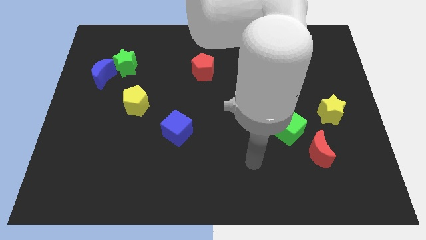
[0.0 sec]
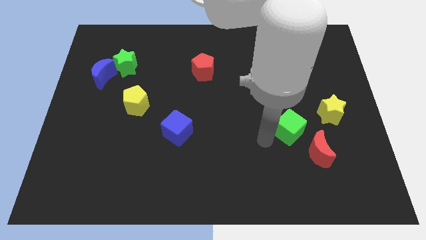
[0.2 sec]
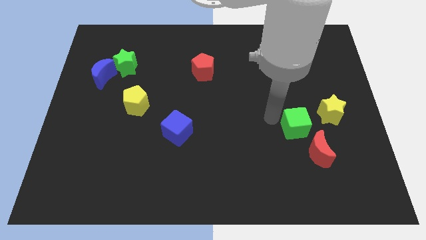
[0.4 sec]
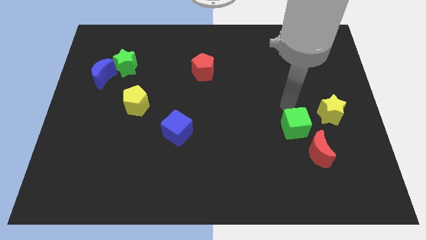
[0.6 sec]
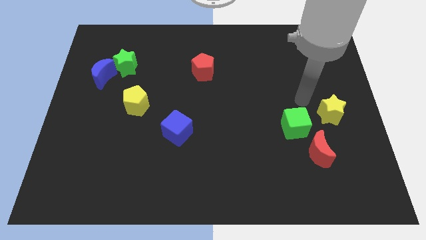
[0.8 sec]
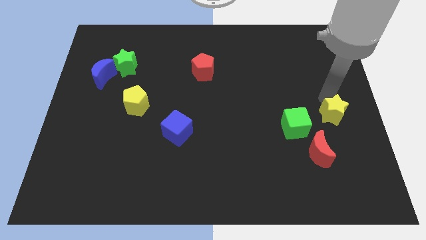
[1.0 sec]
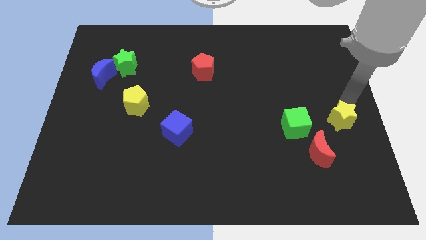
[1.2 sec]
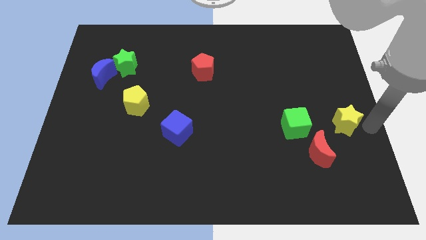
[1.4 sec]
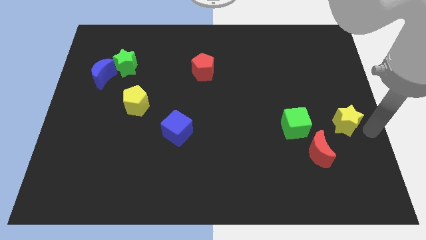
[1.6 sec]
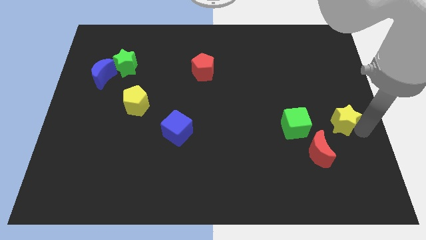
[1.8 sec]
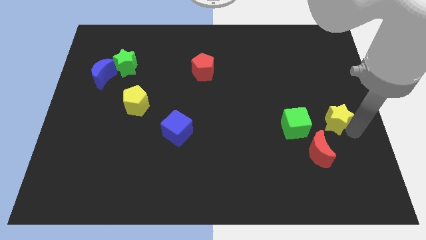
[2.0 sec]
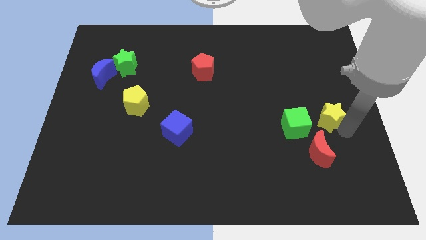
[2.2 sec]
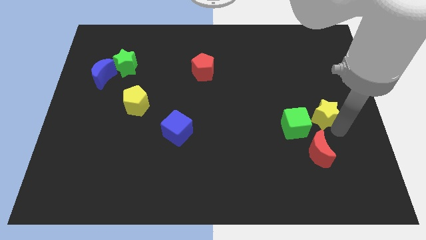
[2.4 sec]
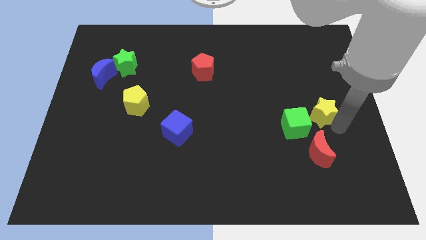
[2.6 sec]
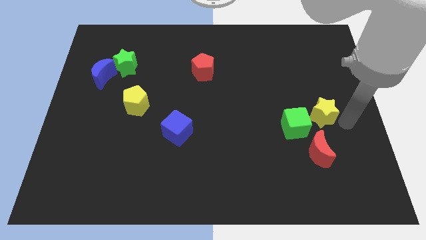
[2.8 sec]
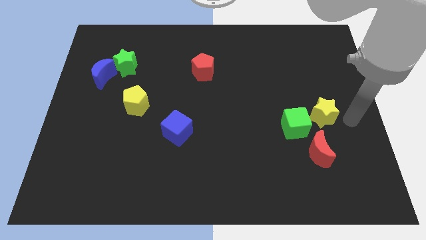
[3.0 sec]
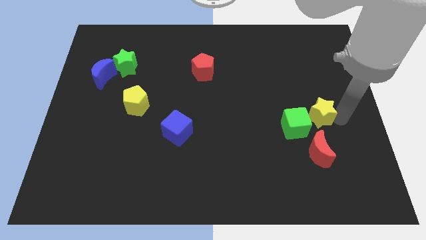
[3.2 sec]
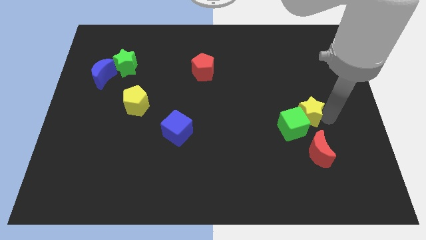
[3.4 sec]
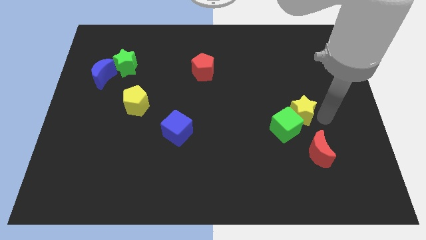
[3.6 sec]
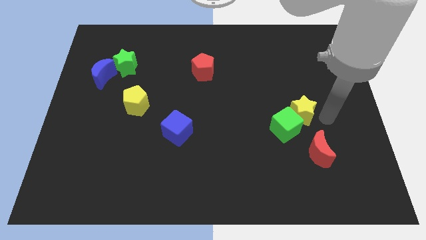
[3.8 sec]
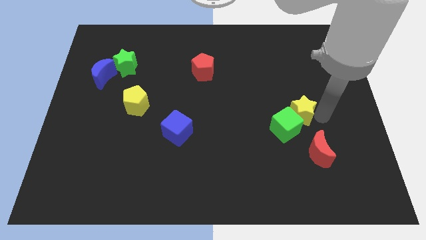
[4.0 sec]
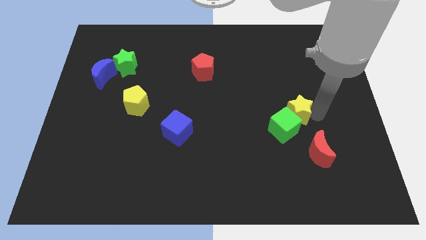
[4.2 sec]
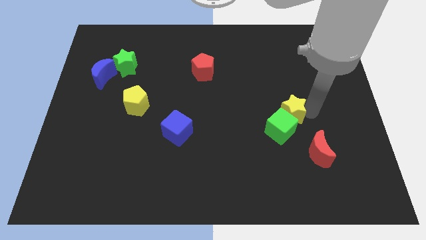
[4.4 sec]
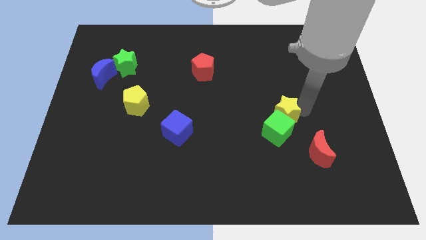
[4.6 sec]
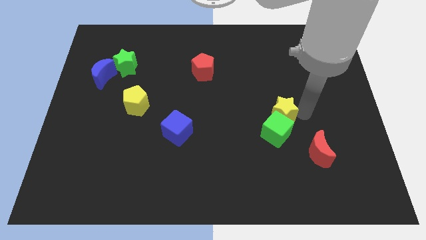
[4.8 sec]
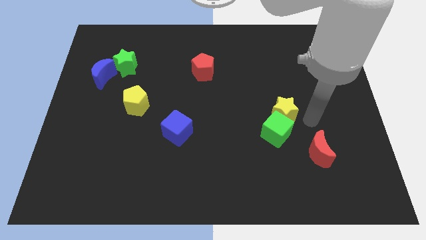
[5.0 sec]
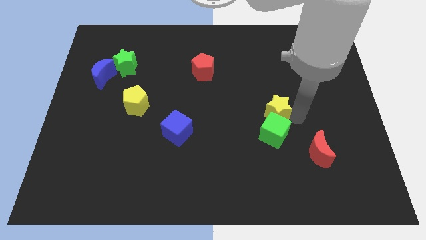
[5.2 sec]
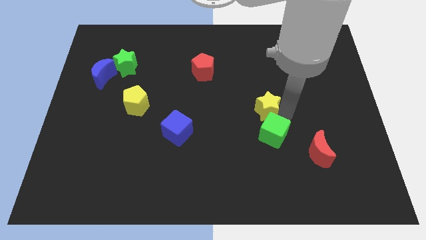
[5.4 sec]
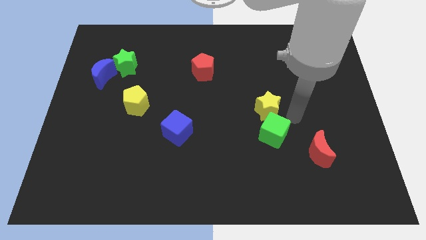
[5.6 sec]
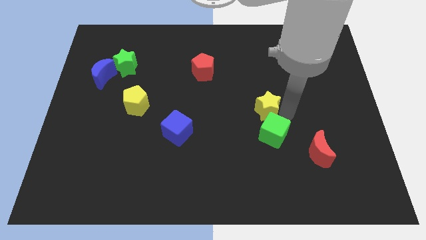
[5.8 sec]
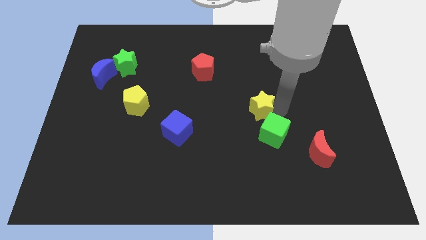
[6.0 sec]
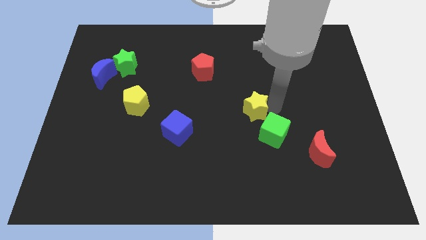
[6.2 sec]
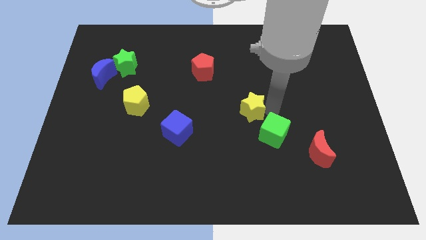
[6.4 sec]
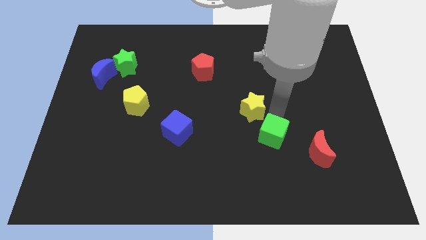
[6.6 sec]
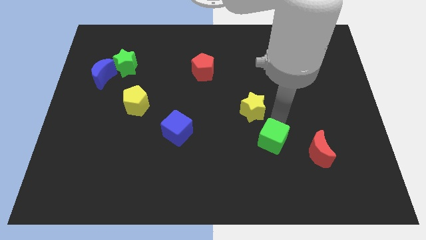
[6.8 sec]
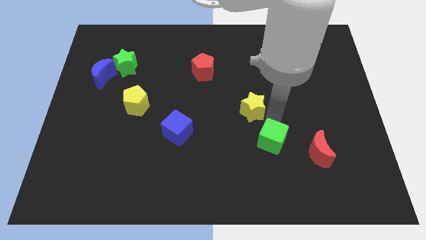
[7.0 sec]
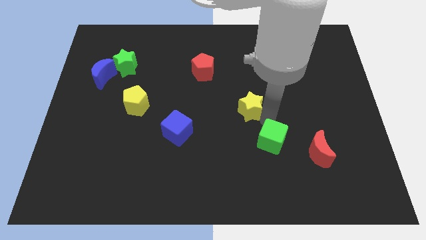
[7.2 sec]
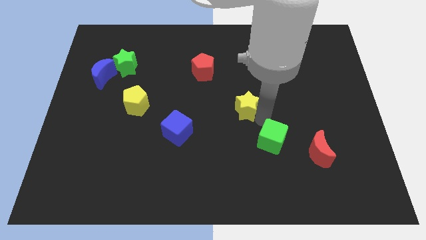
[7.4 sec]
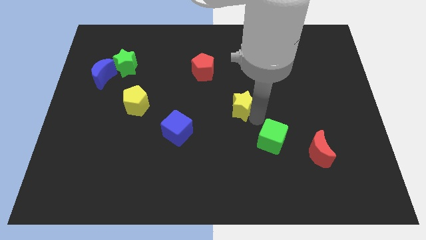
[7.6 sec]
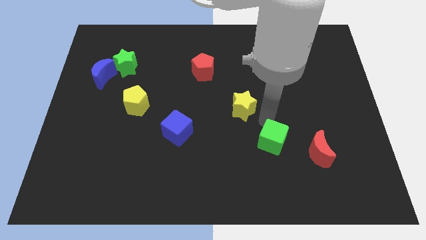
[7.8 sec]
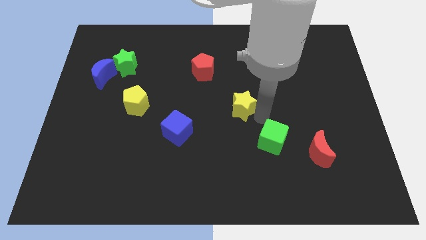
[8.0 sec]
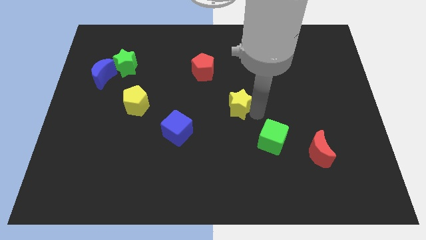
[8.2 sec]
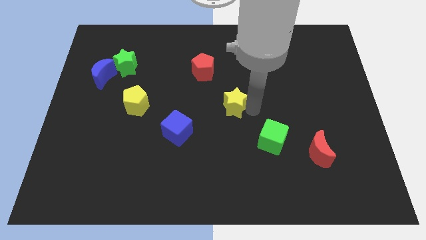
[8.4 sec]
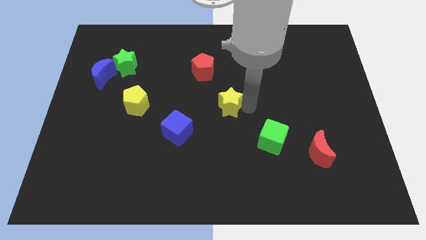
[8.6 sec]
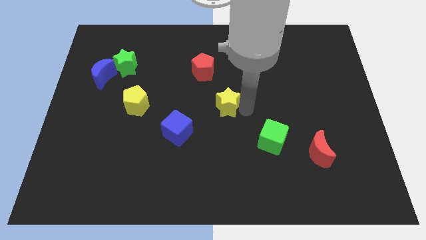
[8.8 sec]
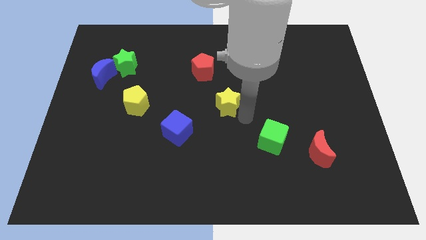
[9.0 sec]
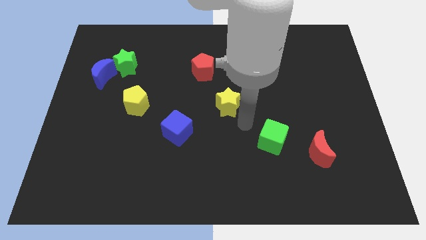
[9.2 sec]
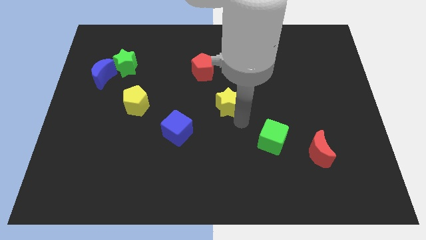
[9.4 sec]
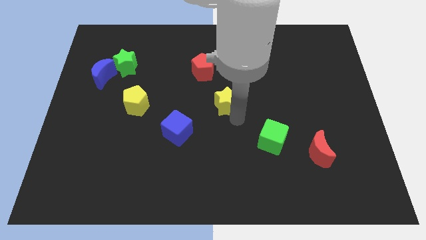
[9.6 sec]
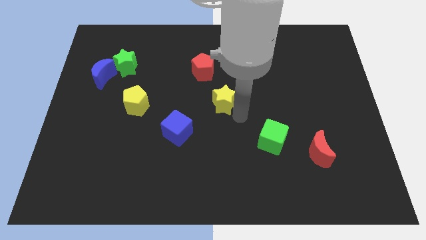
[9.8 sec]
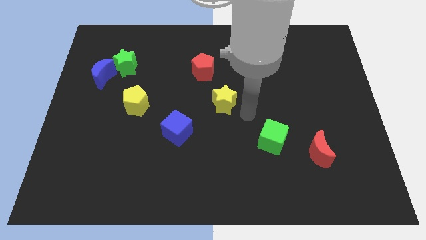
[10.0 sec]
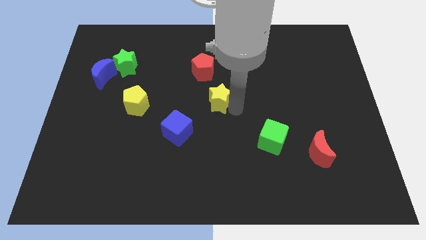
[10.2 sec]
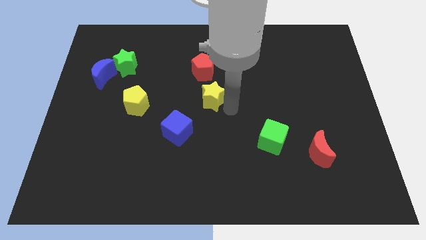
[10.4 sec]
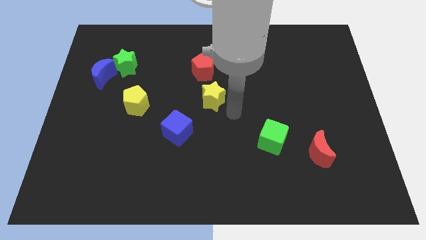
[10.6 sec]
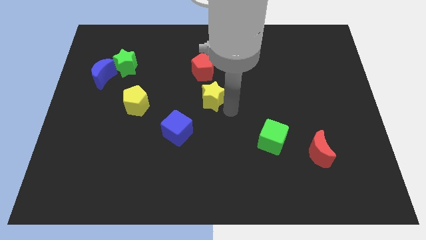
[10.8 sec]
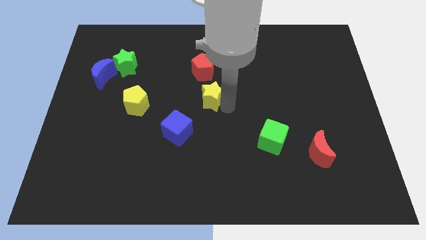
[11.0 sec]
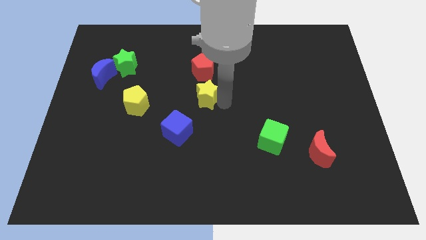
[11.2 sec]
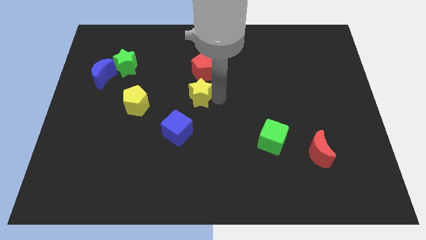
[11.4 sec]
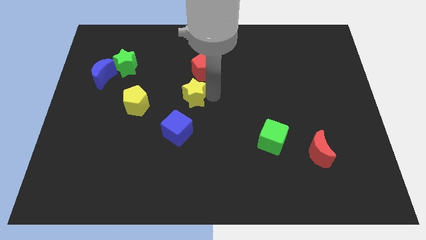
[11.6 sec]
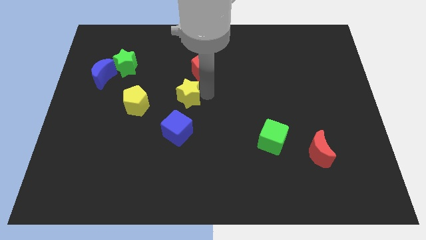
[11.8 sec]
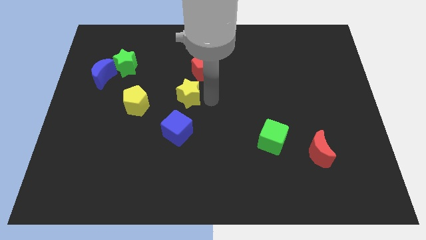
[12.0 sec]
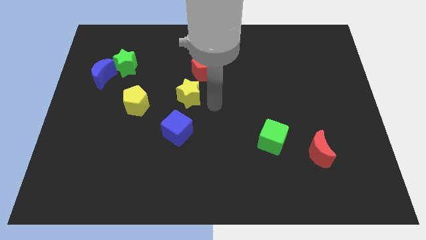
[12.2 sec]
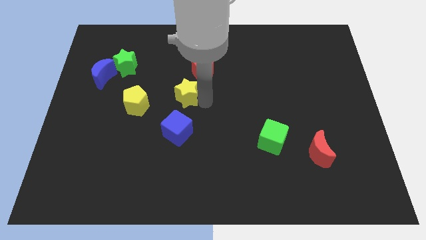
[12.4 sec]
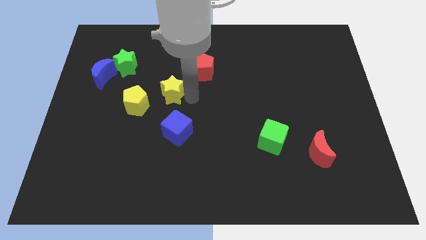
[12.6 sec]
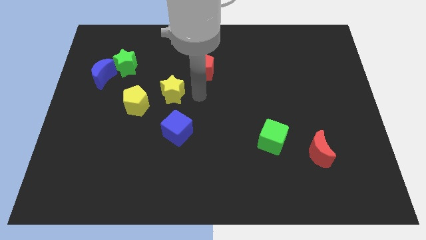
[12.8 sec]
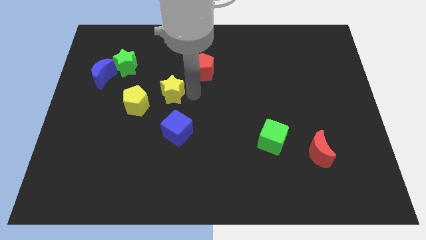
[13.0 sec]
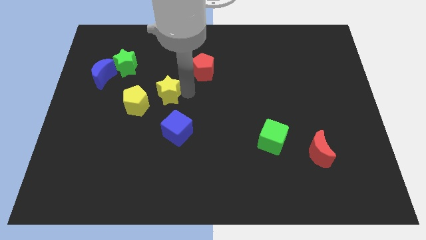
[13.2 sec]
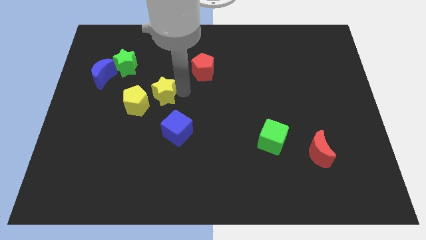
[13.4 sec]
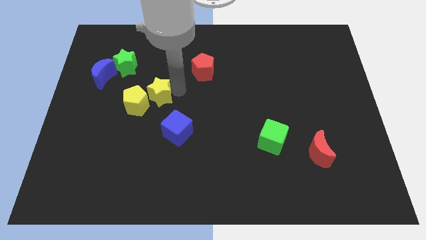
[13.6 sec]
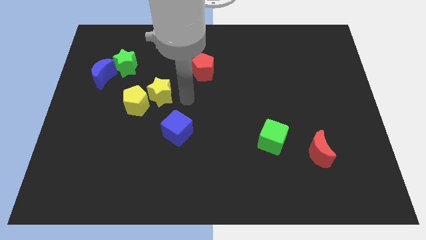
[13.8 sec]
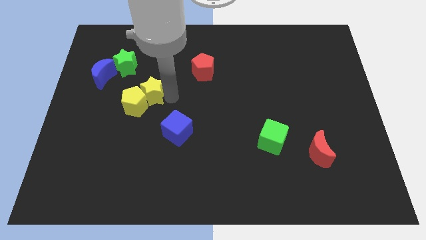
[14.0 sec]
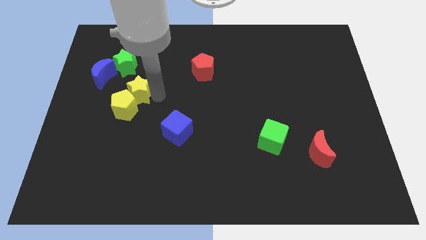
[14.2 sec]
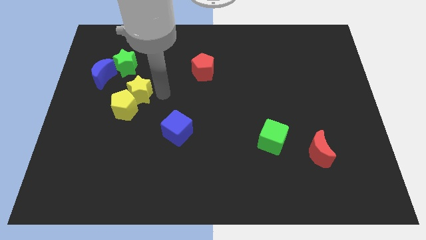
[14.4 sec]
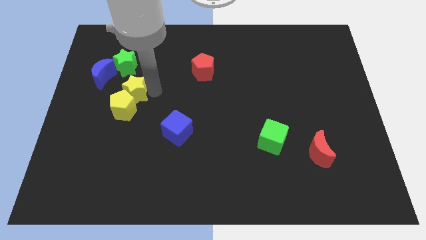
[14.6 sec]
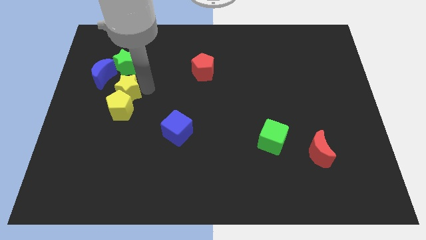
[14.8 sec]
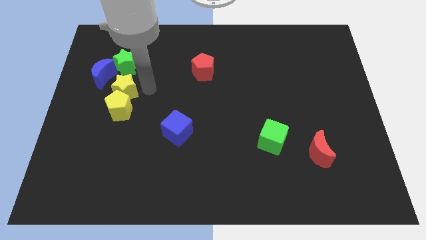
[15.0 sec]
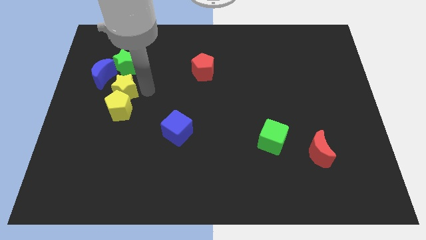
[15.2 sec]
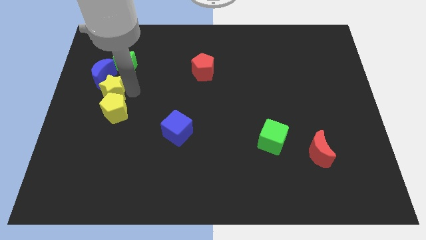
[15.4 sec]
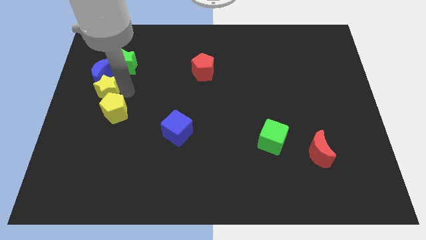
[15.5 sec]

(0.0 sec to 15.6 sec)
push the yellow star to the left side of the board
